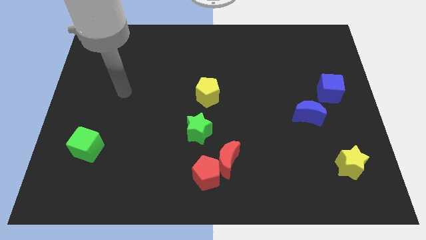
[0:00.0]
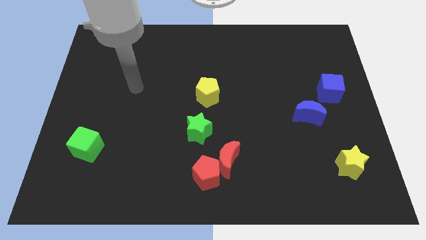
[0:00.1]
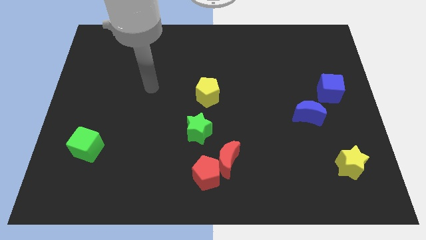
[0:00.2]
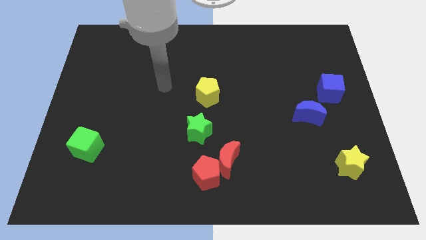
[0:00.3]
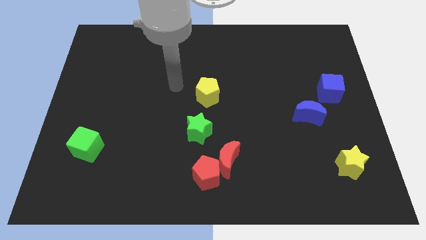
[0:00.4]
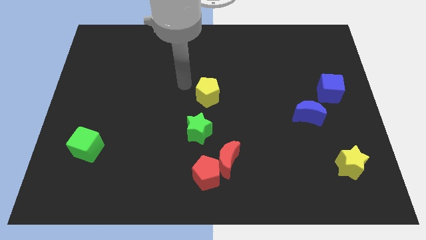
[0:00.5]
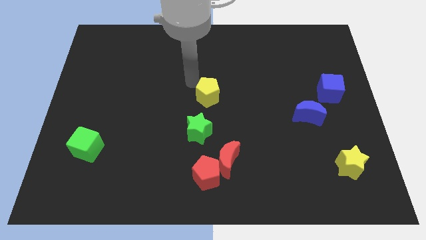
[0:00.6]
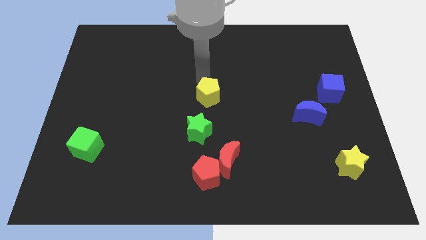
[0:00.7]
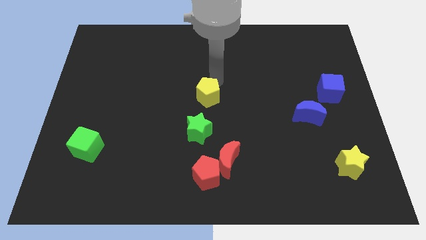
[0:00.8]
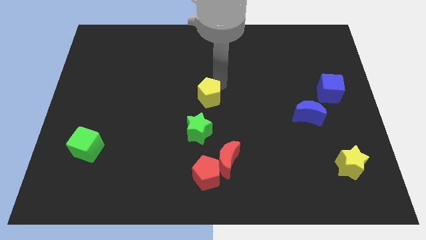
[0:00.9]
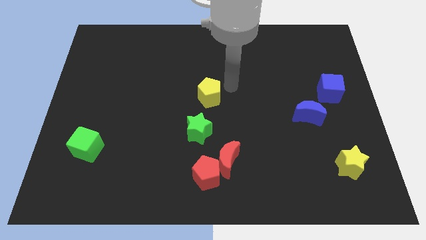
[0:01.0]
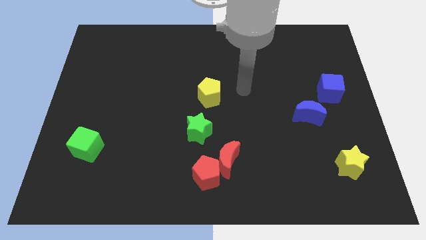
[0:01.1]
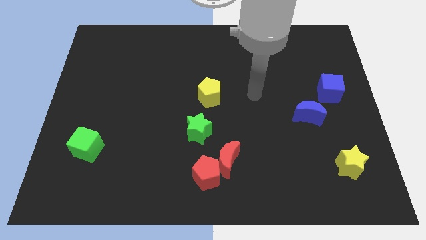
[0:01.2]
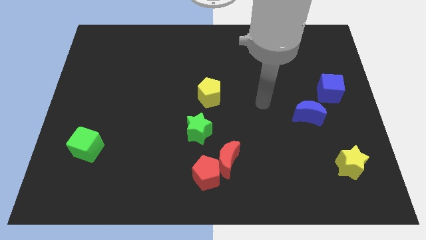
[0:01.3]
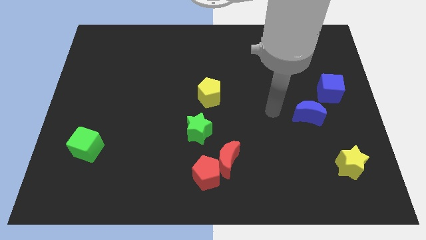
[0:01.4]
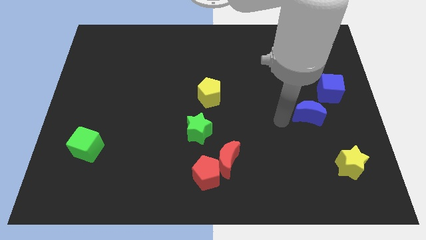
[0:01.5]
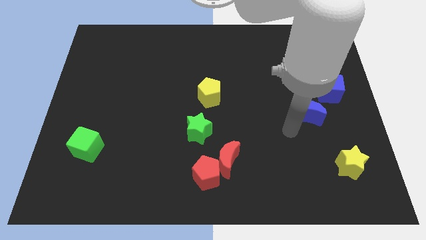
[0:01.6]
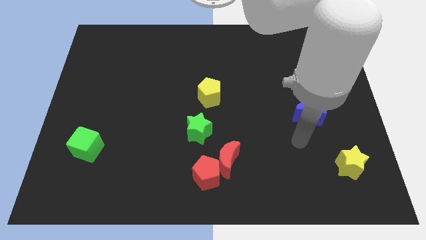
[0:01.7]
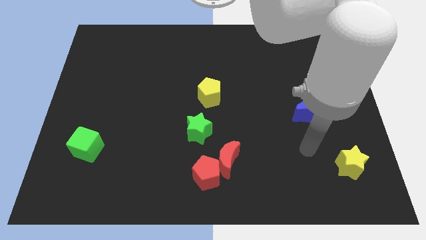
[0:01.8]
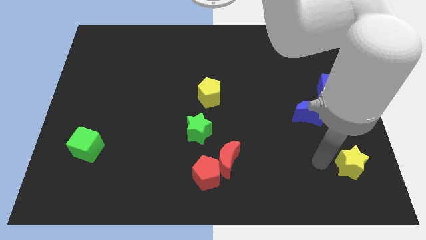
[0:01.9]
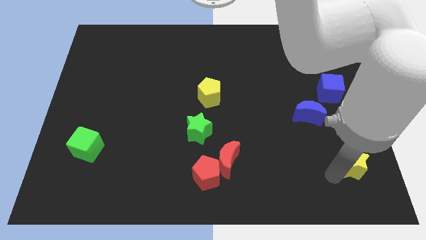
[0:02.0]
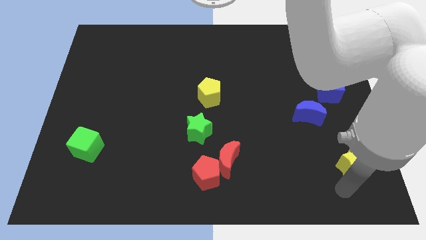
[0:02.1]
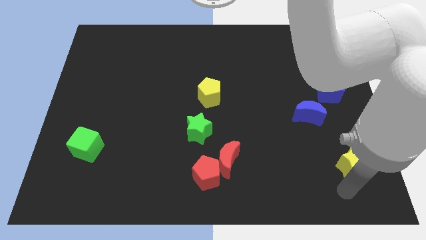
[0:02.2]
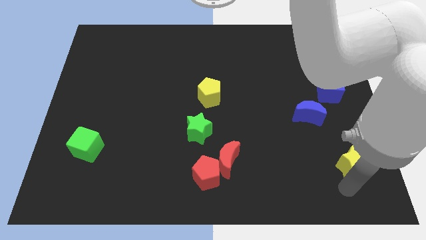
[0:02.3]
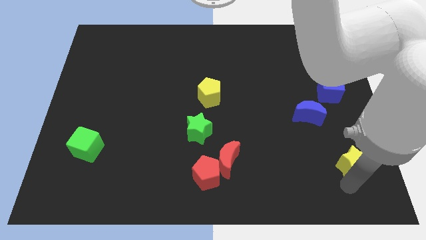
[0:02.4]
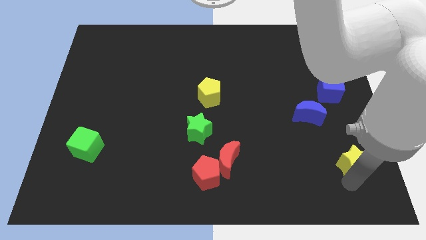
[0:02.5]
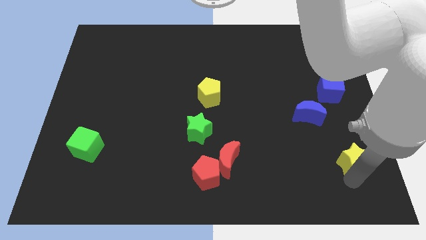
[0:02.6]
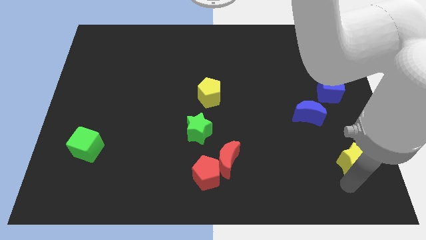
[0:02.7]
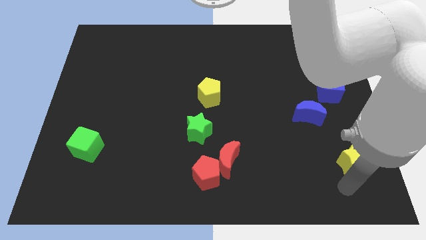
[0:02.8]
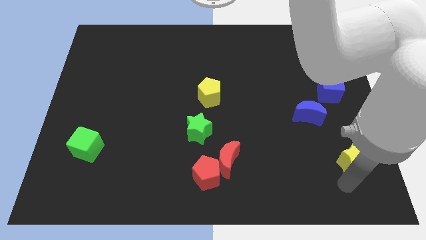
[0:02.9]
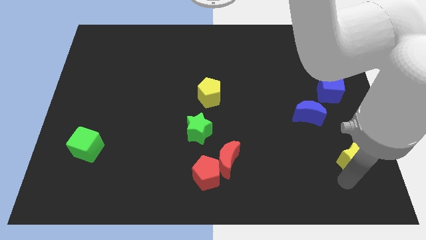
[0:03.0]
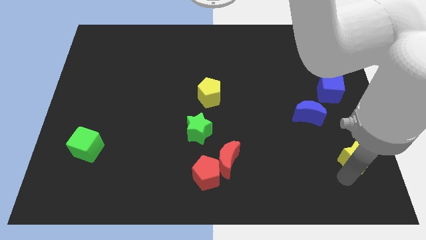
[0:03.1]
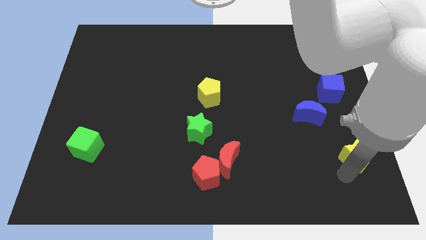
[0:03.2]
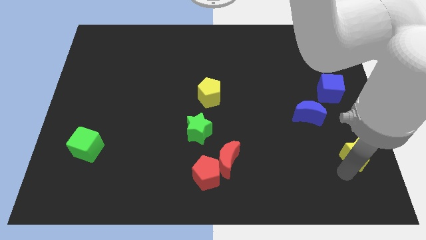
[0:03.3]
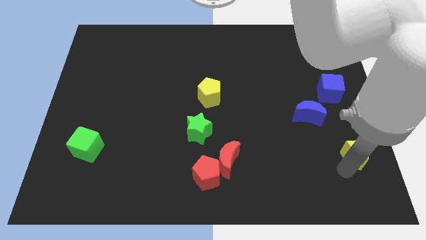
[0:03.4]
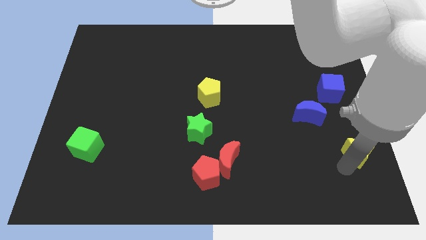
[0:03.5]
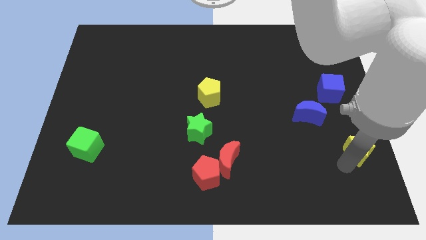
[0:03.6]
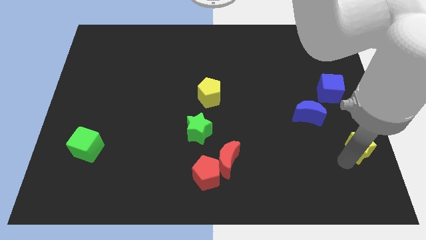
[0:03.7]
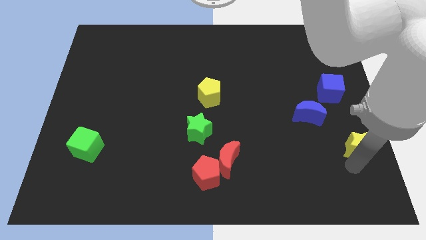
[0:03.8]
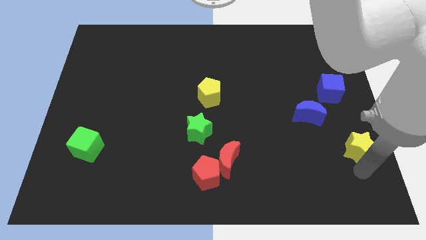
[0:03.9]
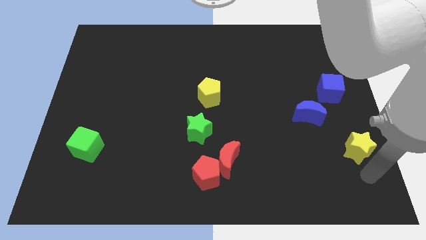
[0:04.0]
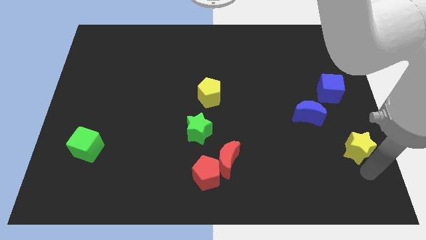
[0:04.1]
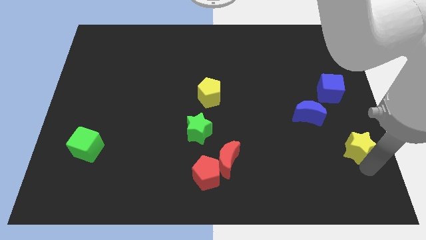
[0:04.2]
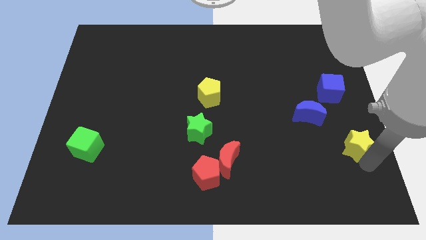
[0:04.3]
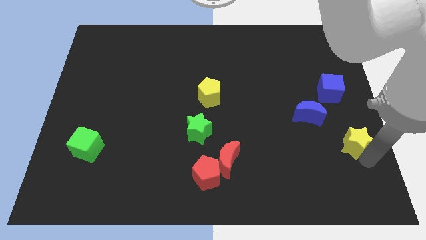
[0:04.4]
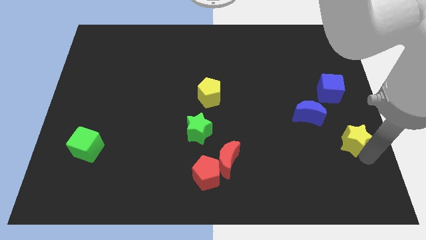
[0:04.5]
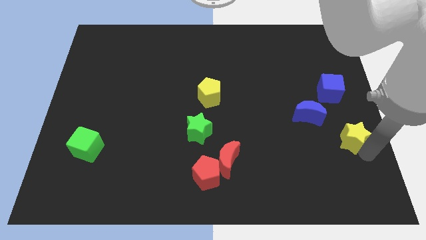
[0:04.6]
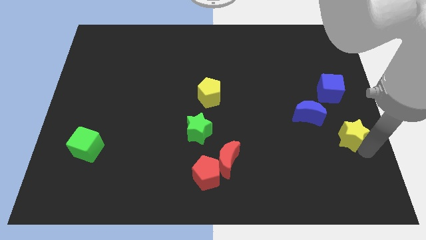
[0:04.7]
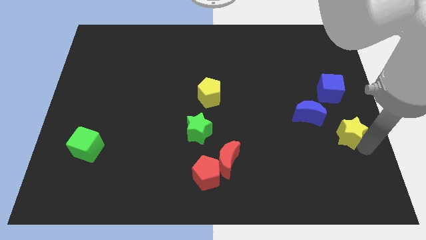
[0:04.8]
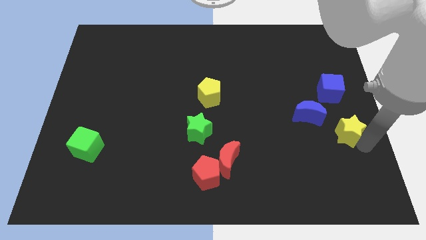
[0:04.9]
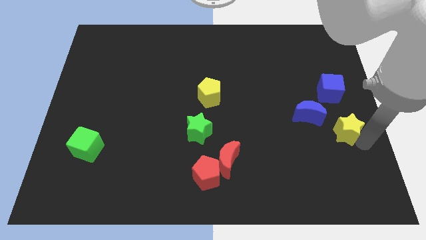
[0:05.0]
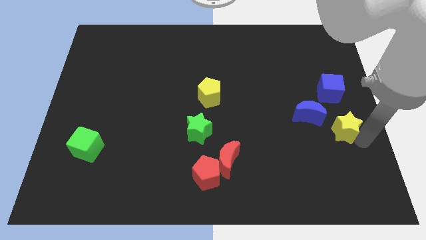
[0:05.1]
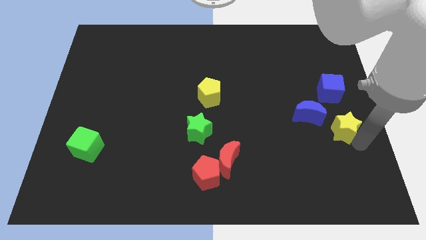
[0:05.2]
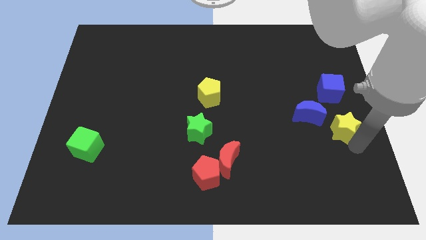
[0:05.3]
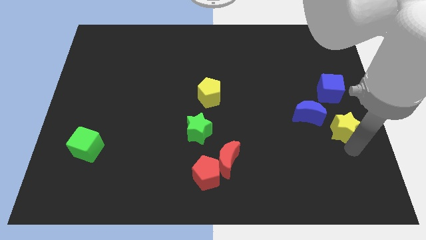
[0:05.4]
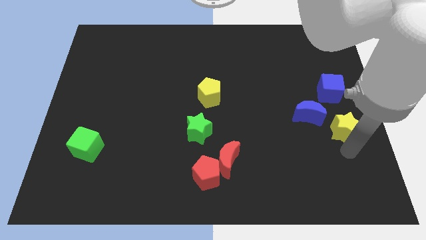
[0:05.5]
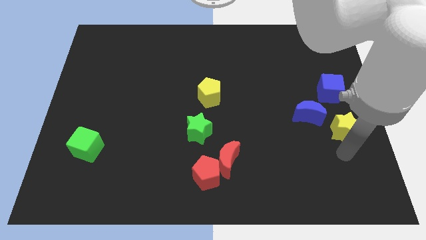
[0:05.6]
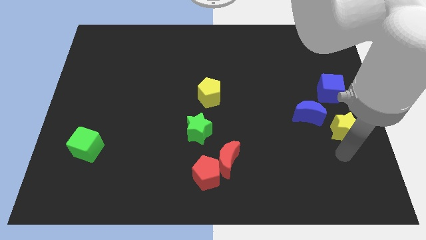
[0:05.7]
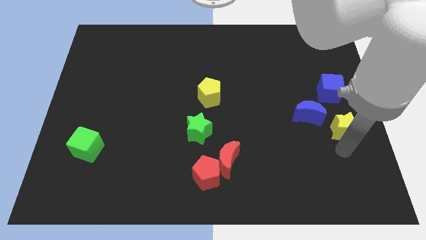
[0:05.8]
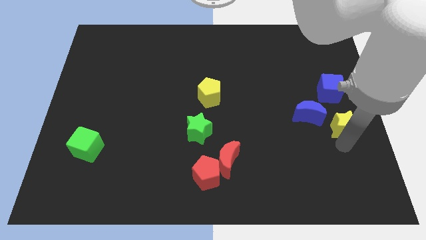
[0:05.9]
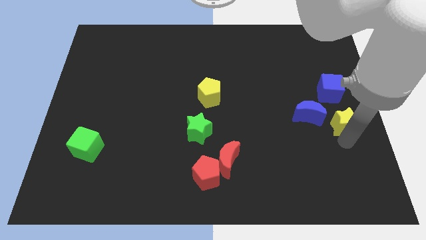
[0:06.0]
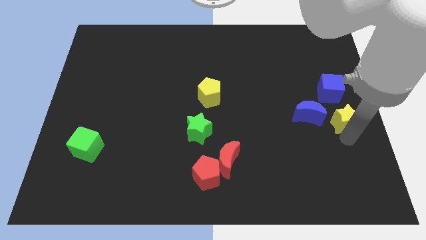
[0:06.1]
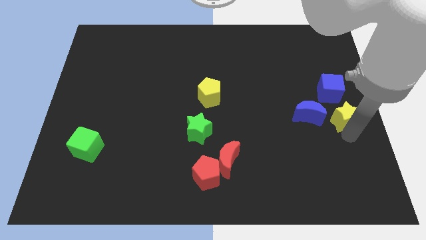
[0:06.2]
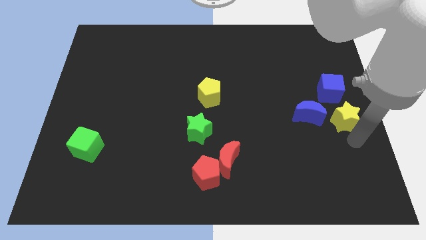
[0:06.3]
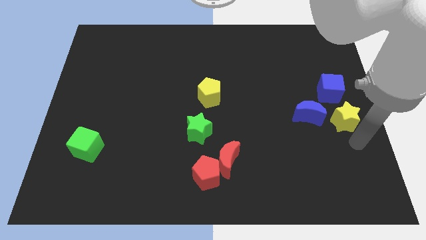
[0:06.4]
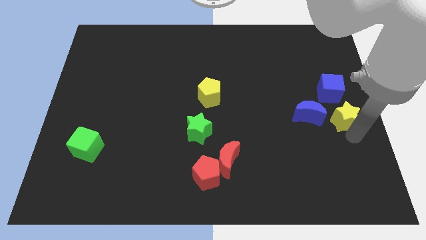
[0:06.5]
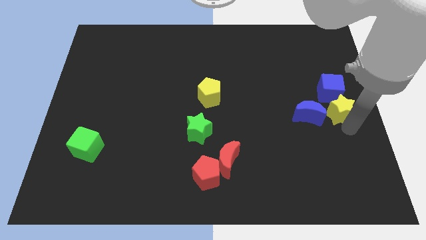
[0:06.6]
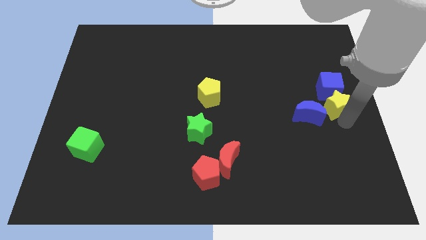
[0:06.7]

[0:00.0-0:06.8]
slide the yellow star towards the blue cube
